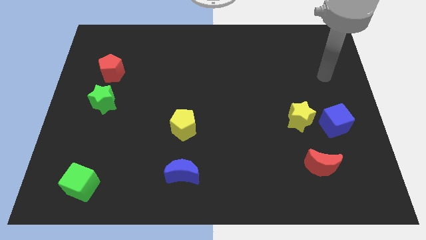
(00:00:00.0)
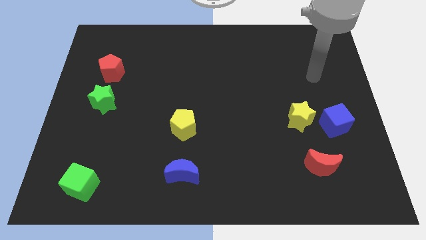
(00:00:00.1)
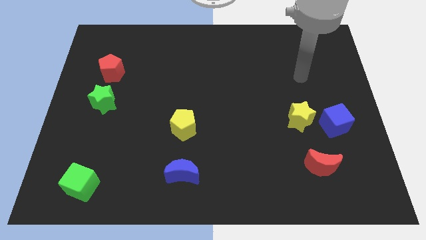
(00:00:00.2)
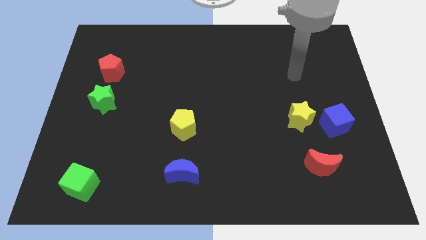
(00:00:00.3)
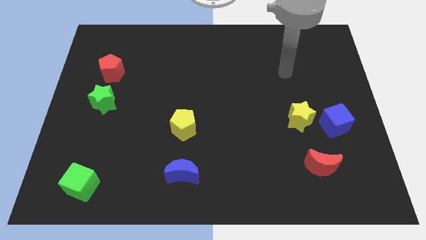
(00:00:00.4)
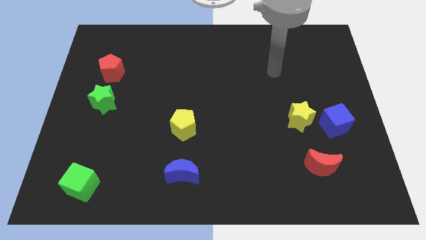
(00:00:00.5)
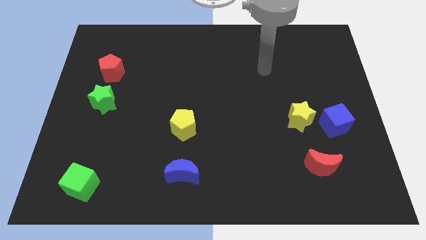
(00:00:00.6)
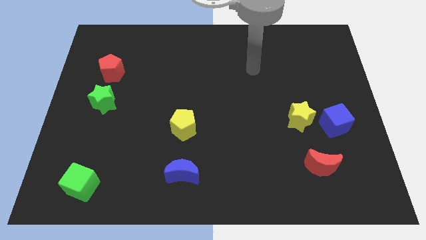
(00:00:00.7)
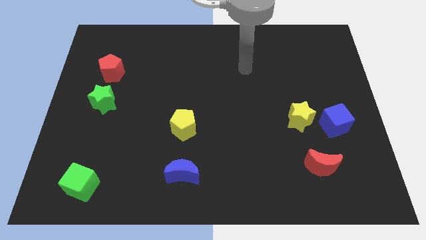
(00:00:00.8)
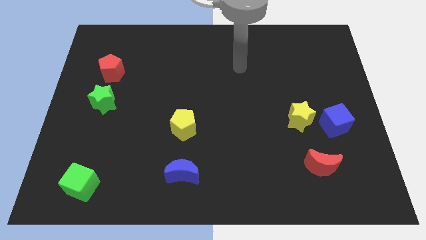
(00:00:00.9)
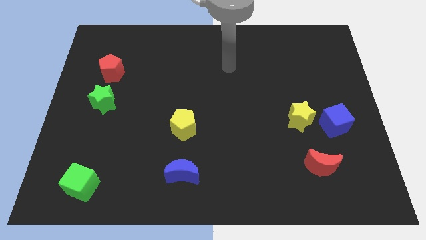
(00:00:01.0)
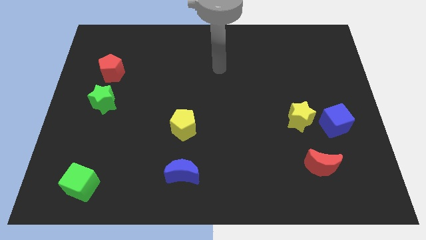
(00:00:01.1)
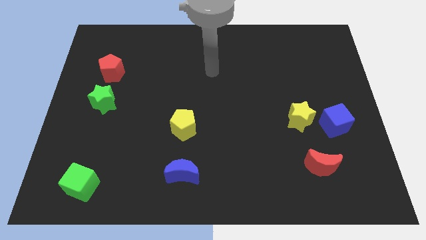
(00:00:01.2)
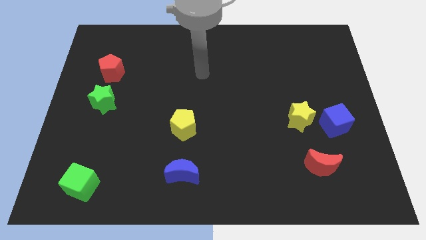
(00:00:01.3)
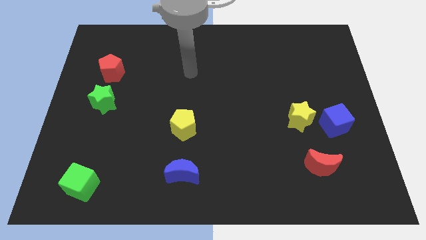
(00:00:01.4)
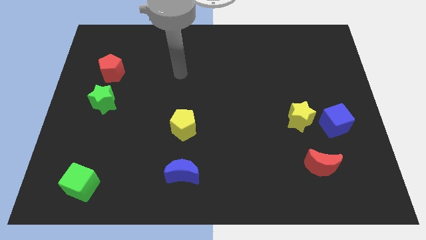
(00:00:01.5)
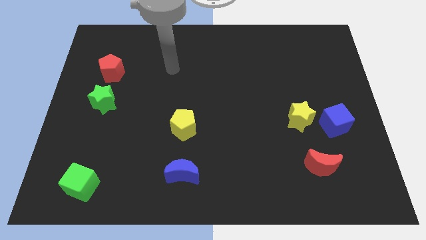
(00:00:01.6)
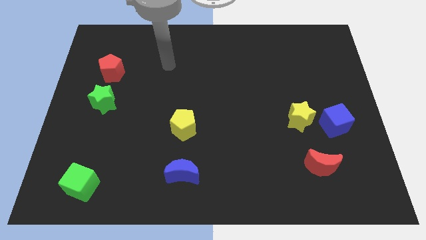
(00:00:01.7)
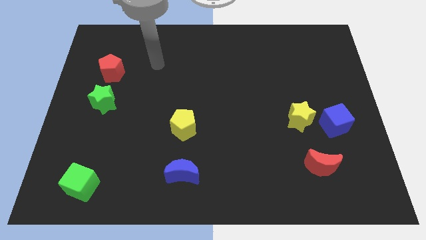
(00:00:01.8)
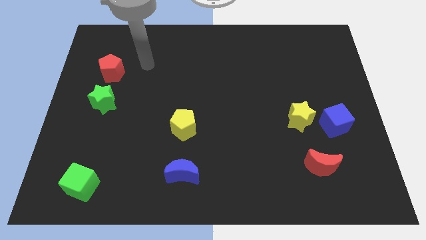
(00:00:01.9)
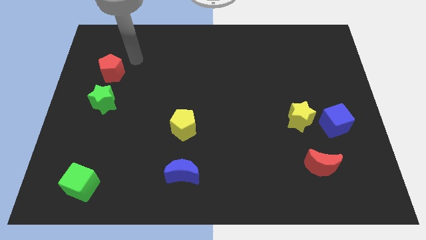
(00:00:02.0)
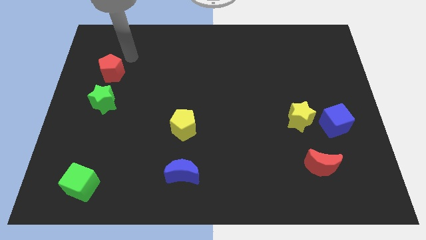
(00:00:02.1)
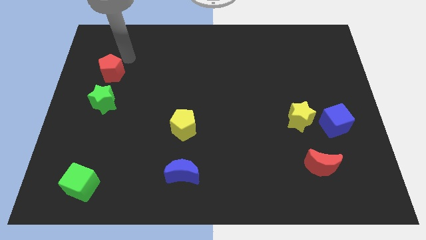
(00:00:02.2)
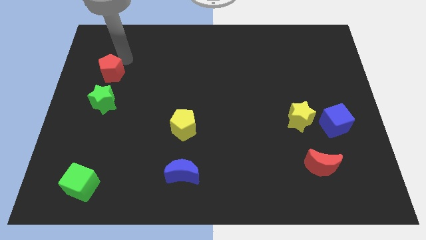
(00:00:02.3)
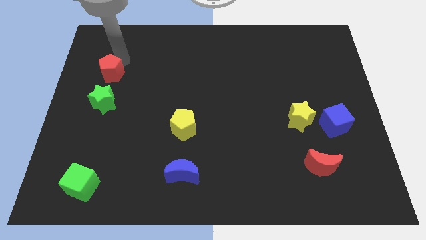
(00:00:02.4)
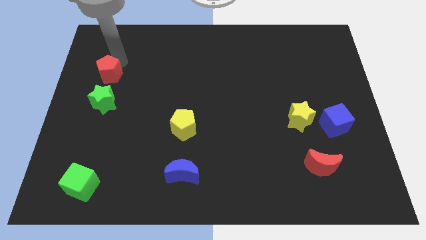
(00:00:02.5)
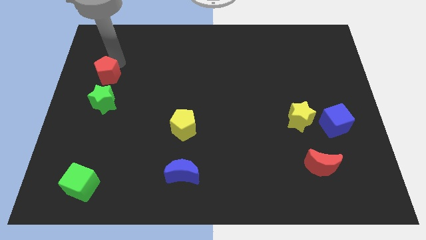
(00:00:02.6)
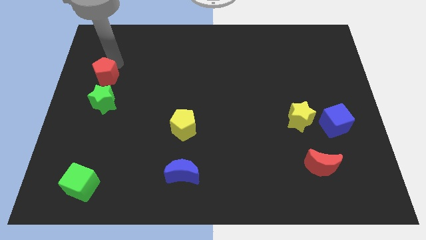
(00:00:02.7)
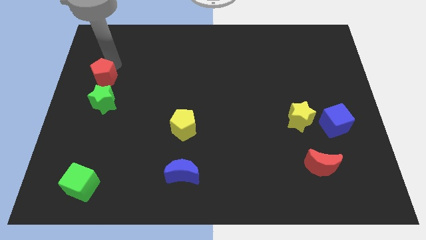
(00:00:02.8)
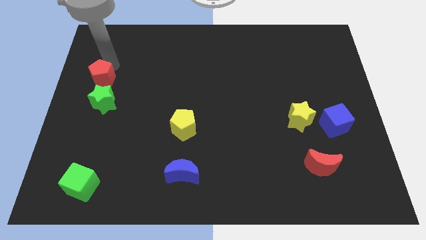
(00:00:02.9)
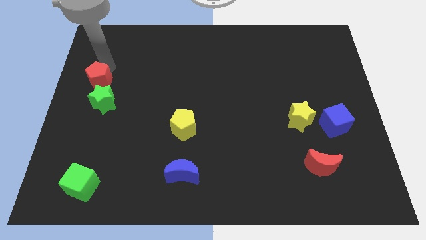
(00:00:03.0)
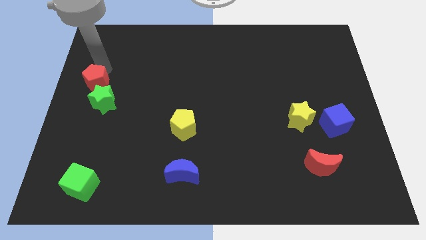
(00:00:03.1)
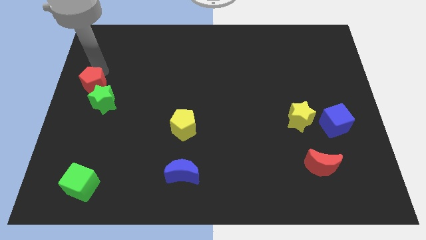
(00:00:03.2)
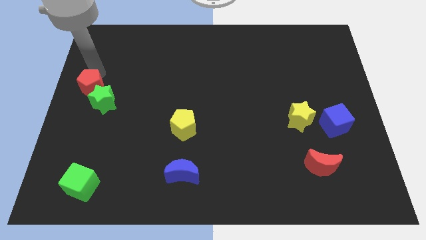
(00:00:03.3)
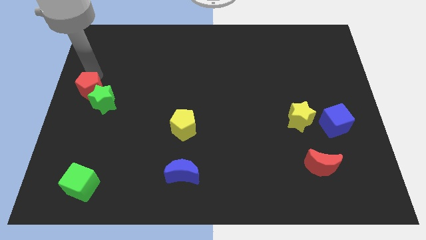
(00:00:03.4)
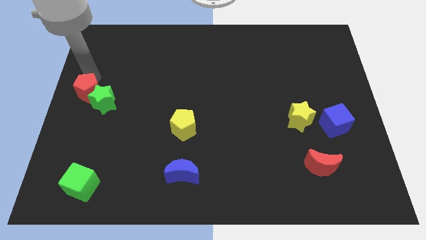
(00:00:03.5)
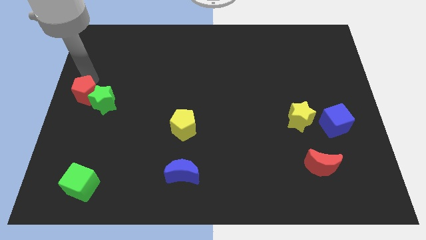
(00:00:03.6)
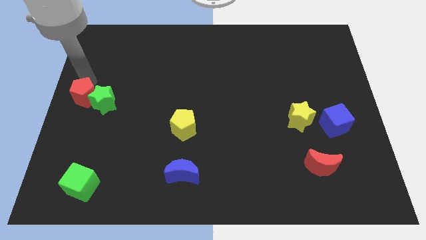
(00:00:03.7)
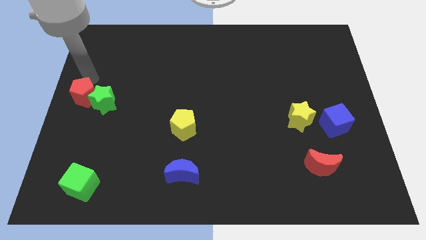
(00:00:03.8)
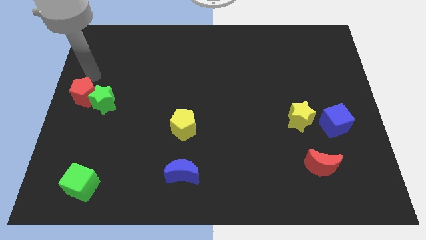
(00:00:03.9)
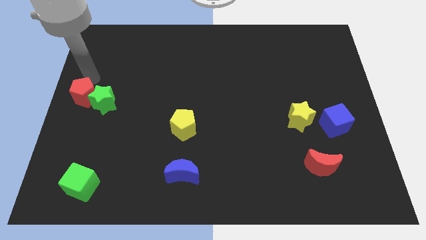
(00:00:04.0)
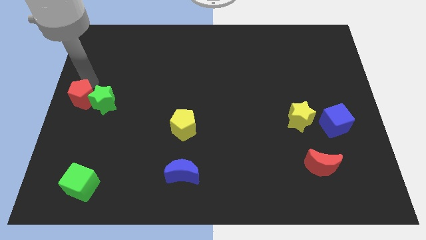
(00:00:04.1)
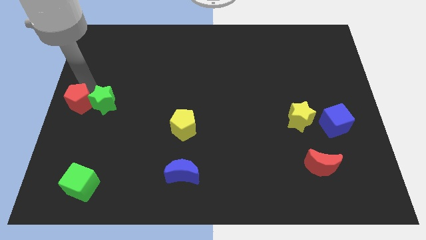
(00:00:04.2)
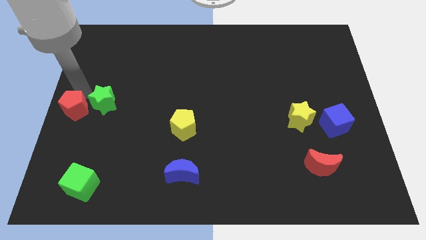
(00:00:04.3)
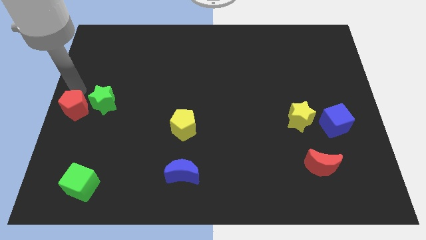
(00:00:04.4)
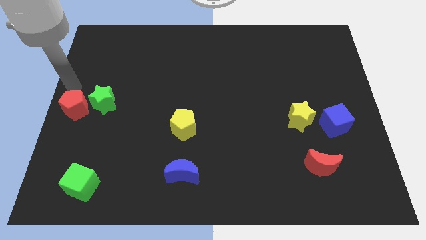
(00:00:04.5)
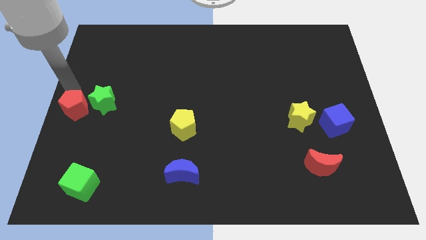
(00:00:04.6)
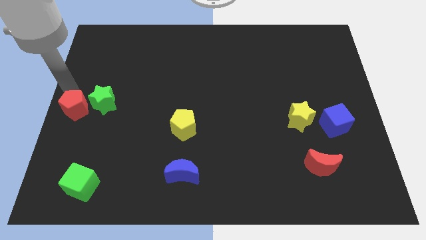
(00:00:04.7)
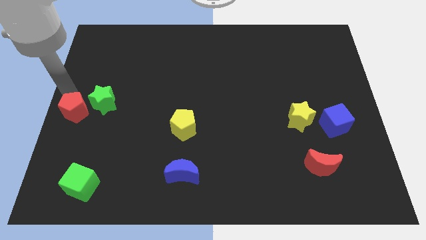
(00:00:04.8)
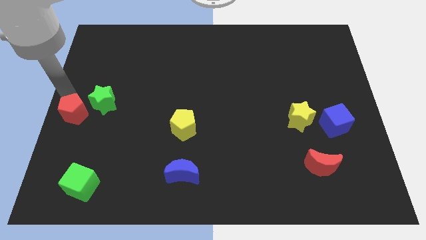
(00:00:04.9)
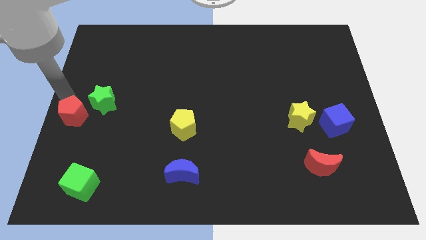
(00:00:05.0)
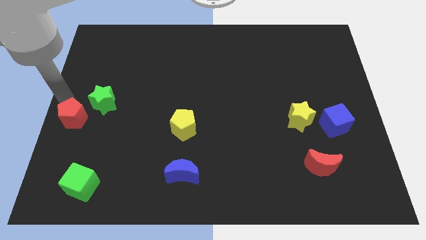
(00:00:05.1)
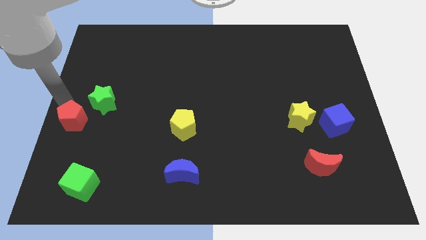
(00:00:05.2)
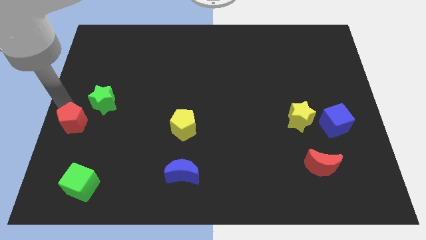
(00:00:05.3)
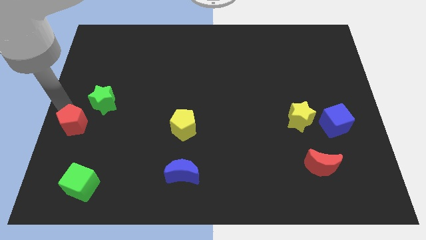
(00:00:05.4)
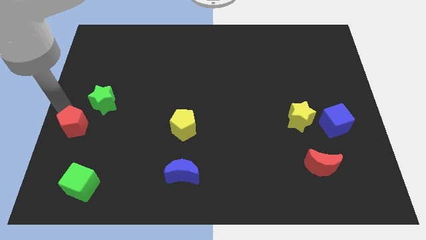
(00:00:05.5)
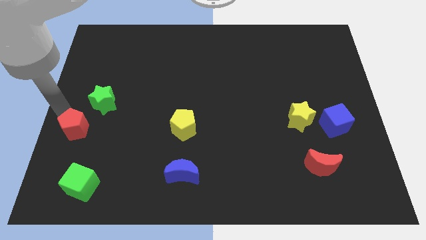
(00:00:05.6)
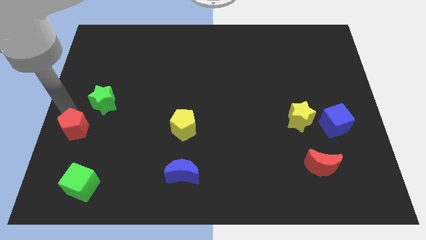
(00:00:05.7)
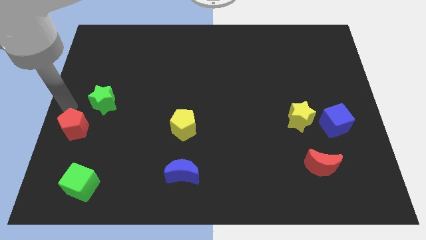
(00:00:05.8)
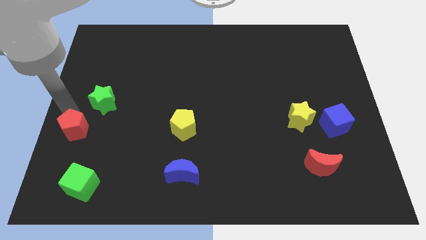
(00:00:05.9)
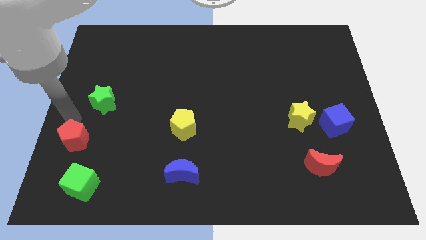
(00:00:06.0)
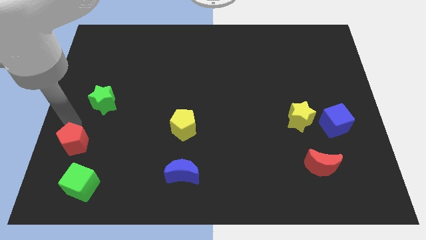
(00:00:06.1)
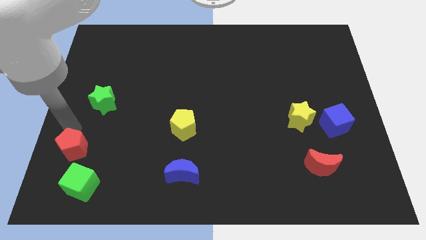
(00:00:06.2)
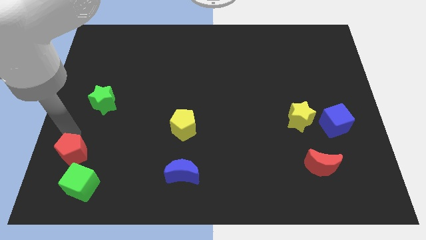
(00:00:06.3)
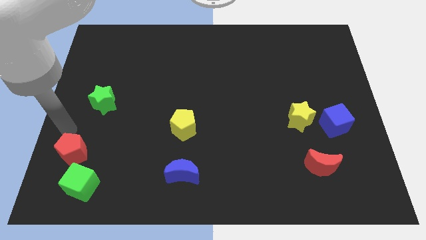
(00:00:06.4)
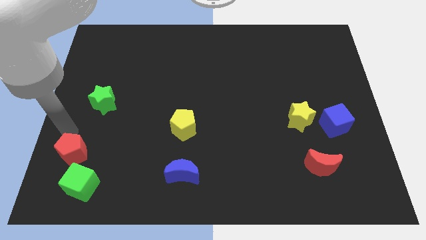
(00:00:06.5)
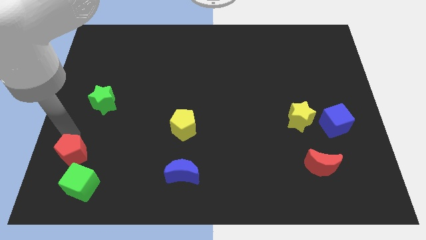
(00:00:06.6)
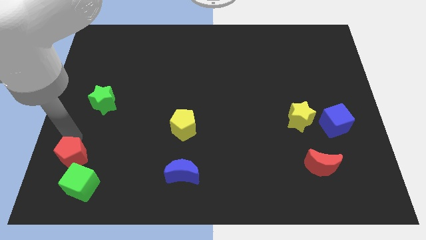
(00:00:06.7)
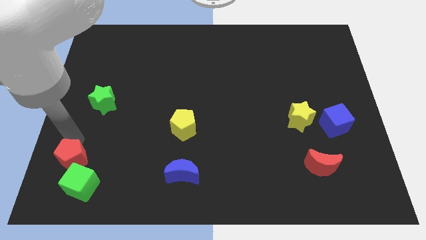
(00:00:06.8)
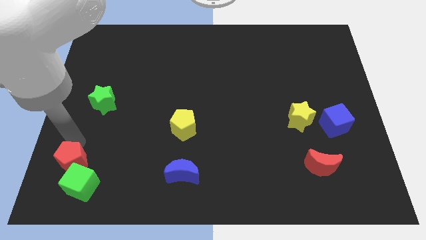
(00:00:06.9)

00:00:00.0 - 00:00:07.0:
slide the red pentagon close to the green cube

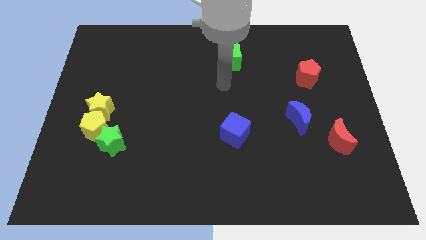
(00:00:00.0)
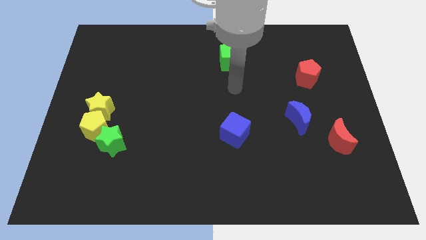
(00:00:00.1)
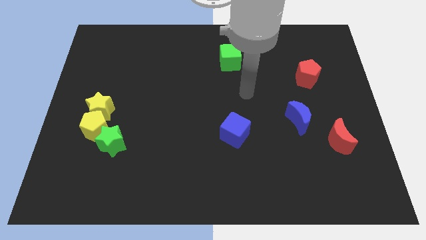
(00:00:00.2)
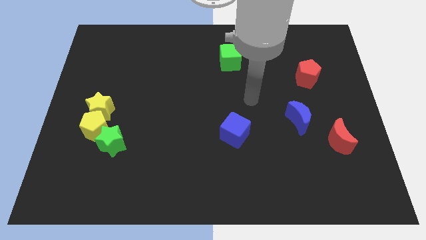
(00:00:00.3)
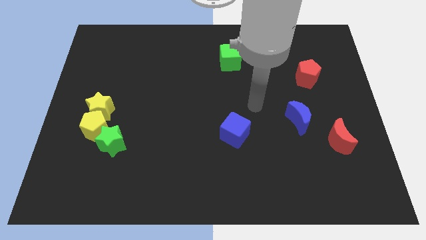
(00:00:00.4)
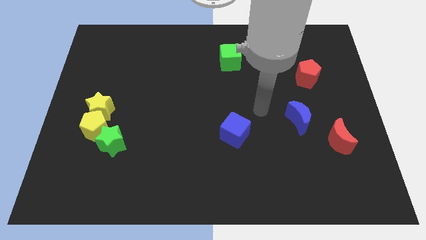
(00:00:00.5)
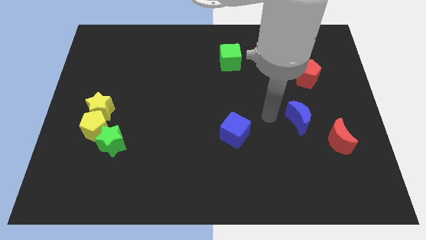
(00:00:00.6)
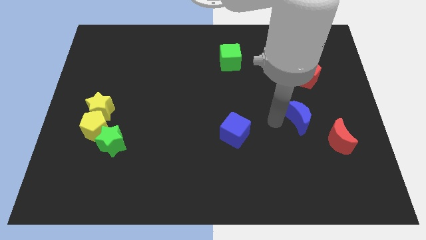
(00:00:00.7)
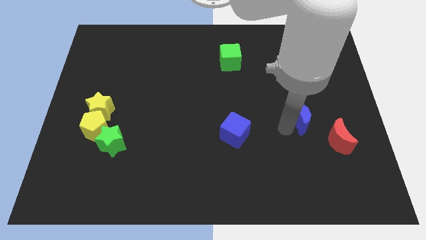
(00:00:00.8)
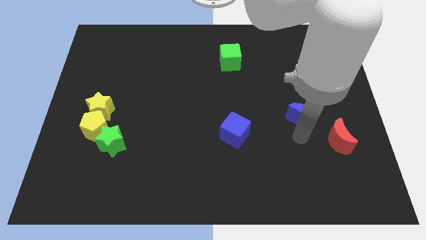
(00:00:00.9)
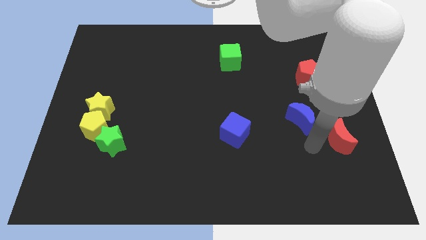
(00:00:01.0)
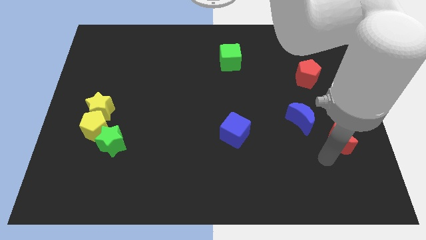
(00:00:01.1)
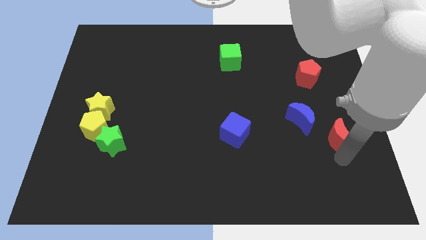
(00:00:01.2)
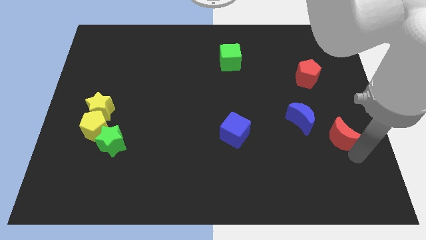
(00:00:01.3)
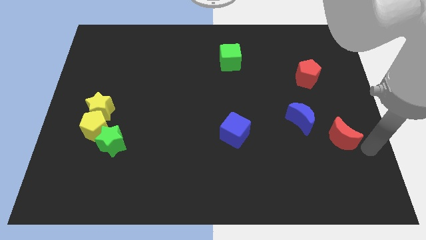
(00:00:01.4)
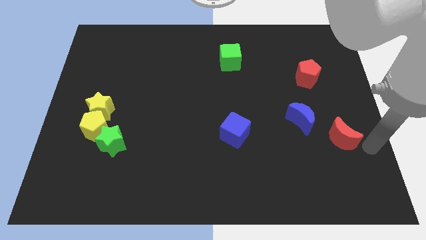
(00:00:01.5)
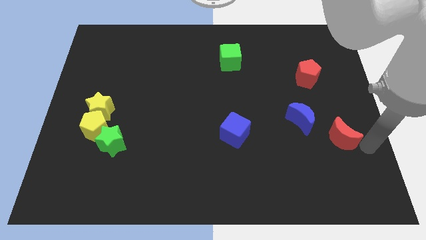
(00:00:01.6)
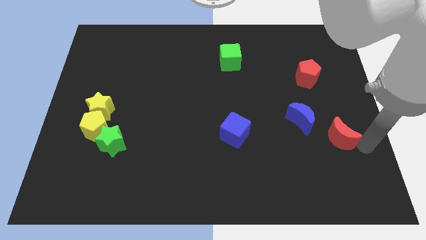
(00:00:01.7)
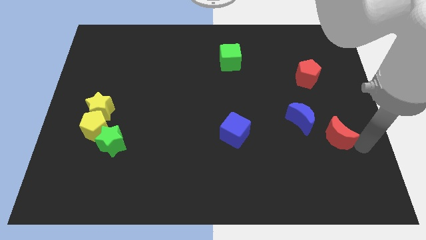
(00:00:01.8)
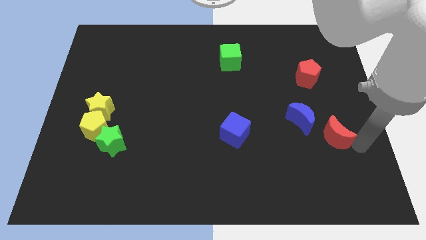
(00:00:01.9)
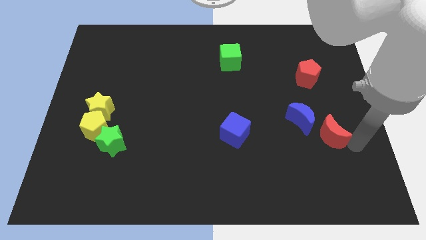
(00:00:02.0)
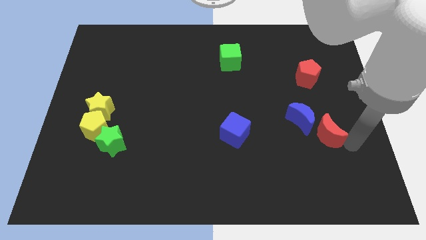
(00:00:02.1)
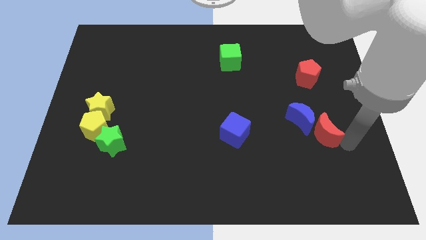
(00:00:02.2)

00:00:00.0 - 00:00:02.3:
move the red moon to the blue moon
